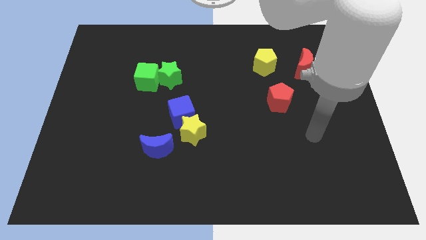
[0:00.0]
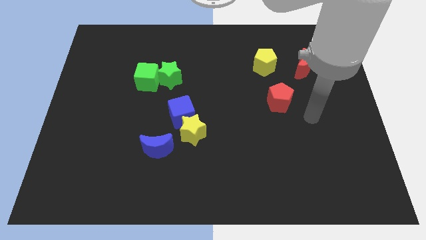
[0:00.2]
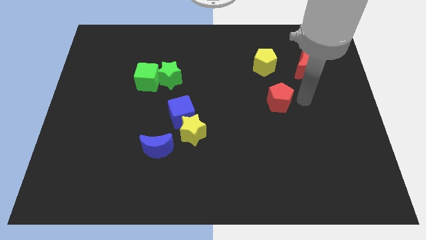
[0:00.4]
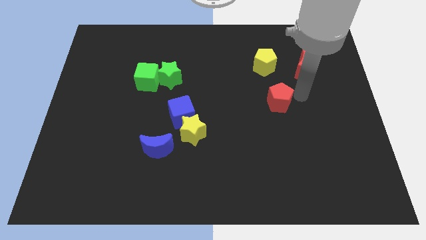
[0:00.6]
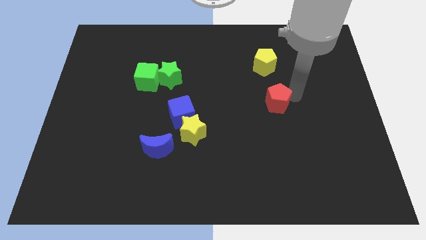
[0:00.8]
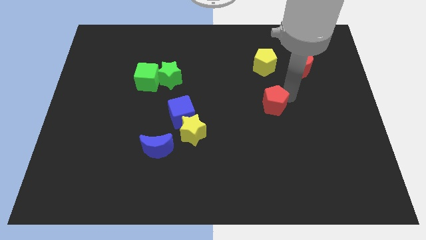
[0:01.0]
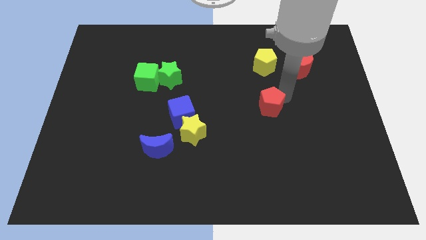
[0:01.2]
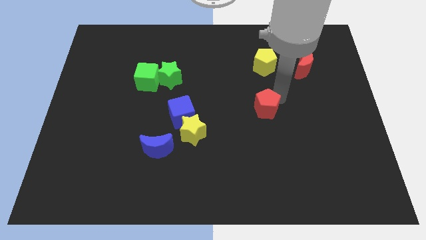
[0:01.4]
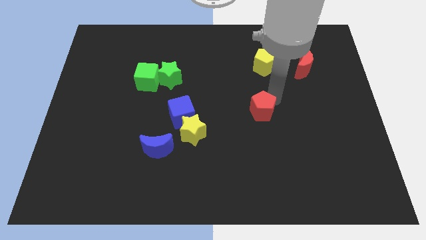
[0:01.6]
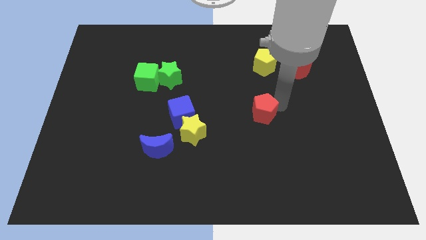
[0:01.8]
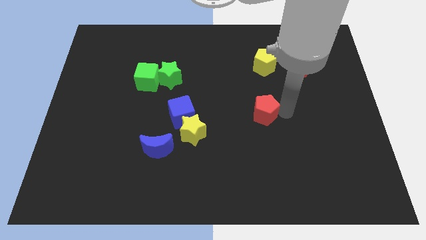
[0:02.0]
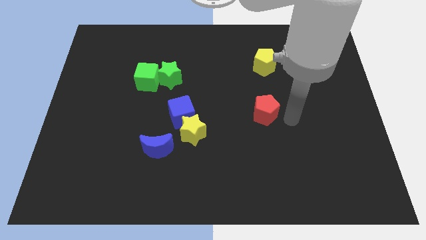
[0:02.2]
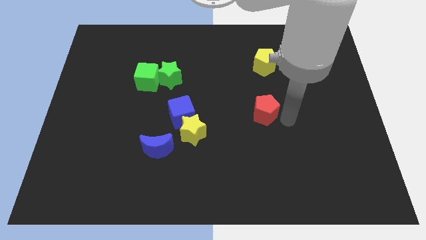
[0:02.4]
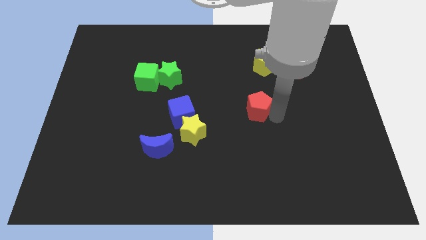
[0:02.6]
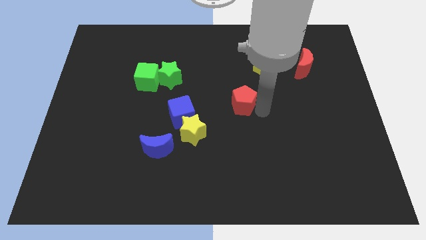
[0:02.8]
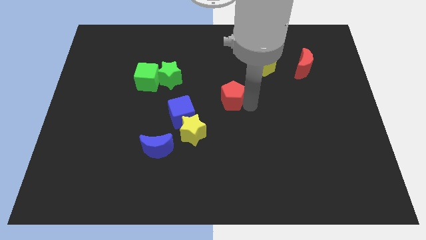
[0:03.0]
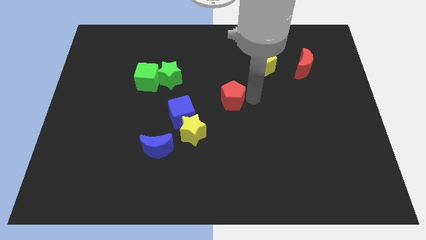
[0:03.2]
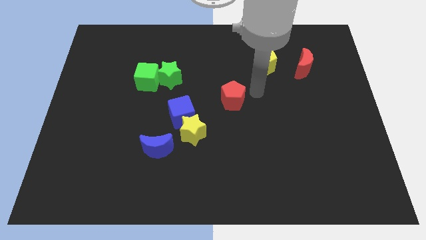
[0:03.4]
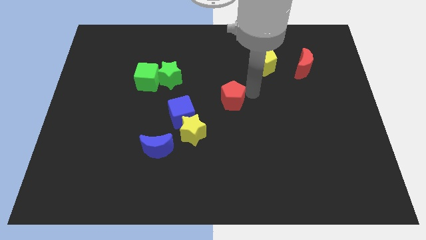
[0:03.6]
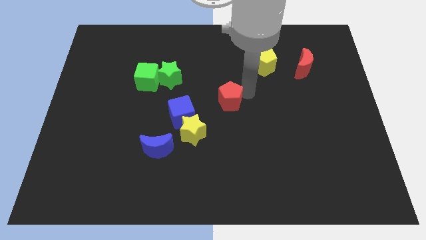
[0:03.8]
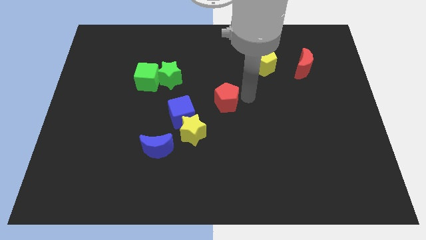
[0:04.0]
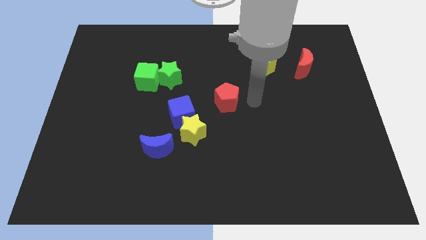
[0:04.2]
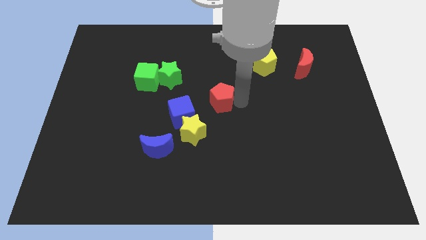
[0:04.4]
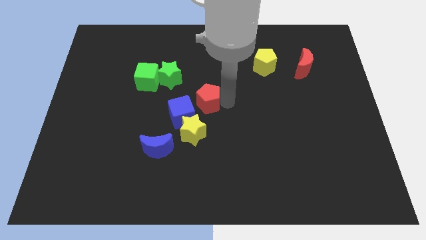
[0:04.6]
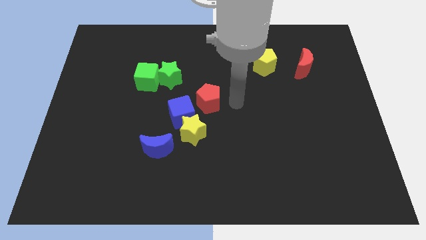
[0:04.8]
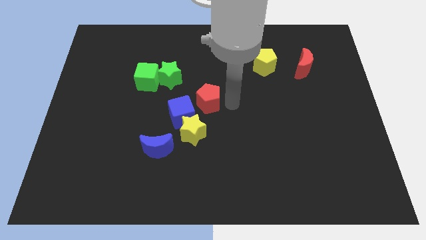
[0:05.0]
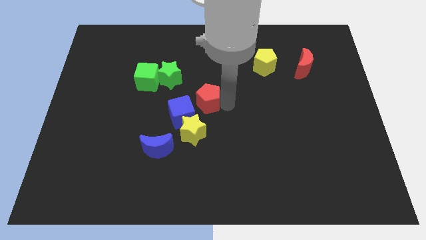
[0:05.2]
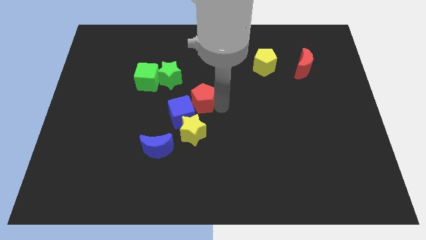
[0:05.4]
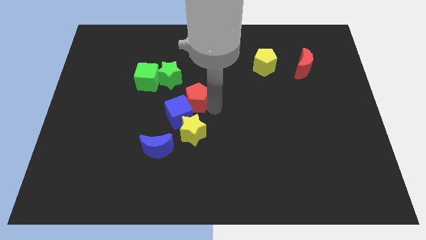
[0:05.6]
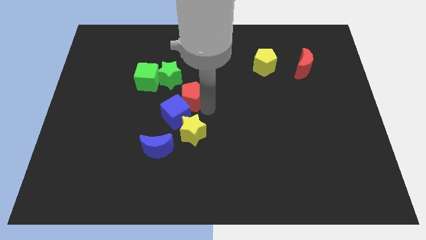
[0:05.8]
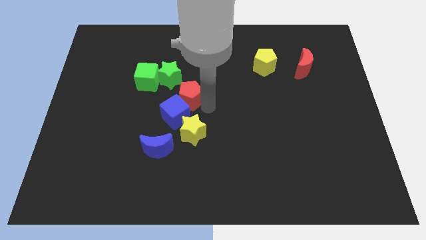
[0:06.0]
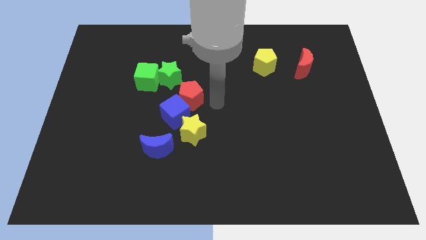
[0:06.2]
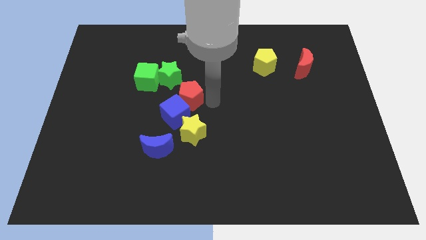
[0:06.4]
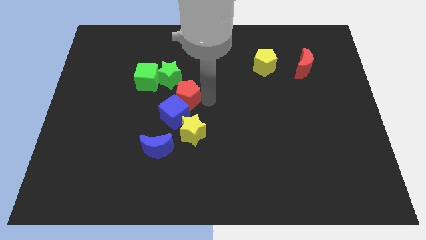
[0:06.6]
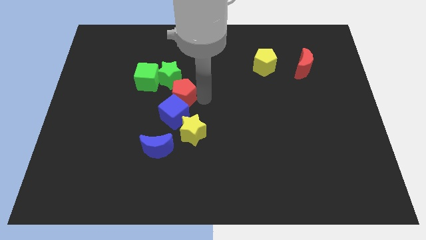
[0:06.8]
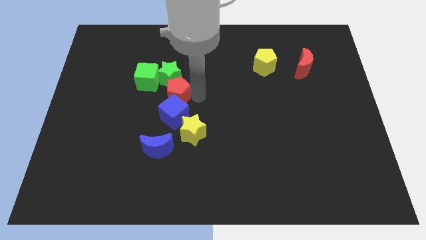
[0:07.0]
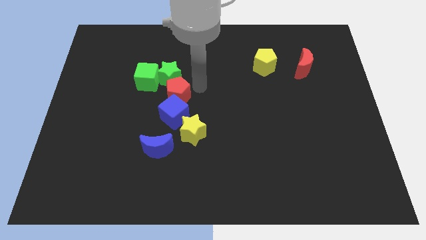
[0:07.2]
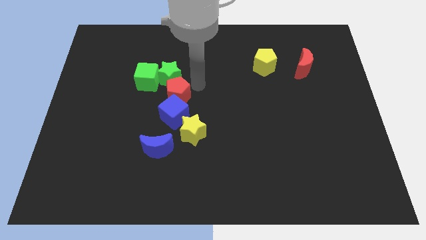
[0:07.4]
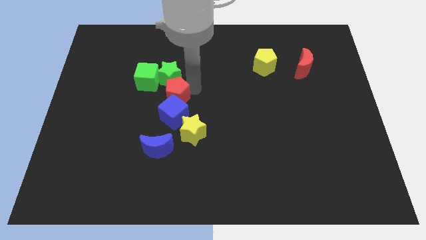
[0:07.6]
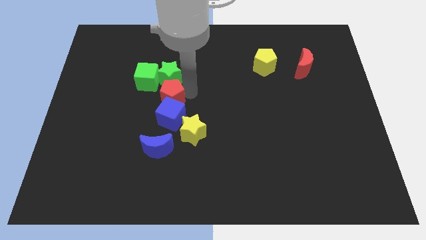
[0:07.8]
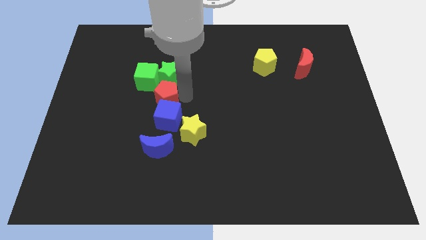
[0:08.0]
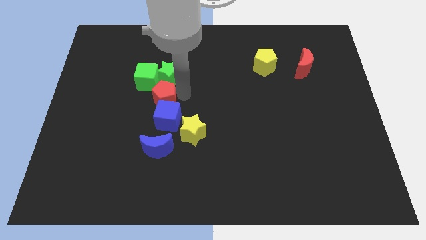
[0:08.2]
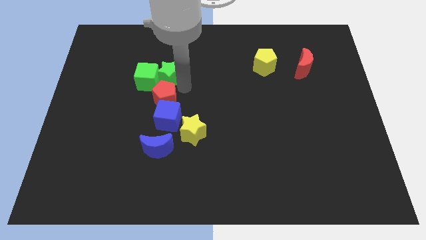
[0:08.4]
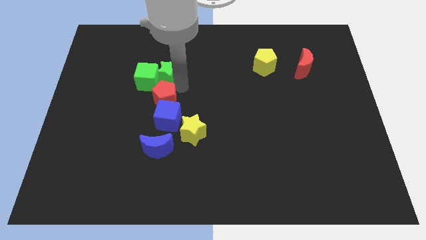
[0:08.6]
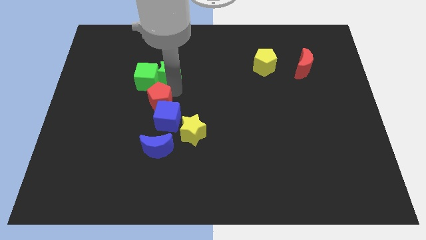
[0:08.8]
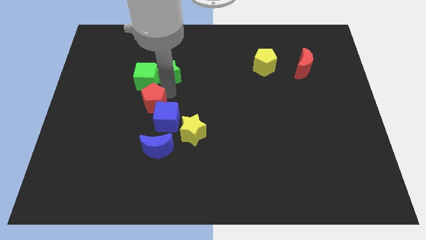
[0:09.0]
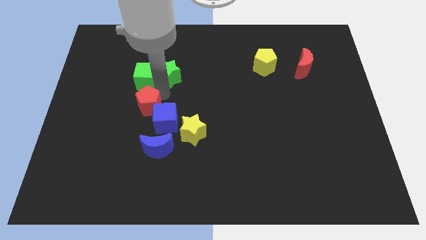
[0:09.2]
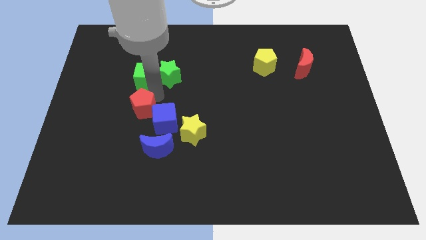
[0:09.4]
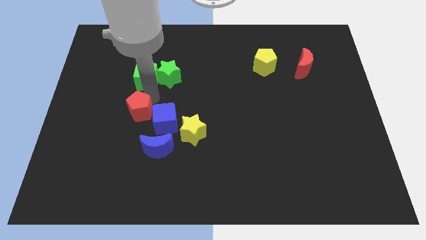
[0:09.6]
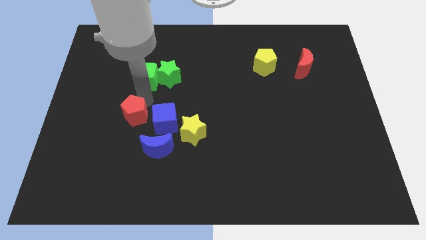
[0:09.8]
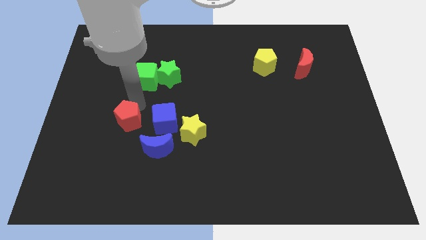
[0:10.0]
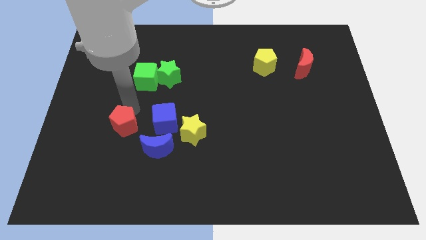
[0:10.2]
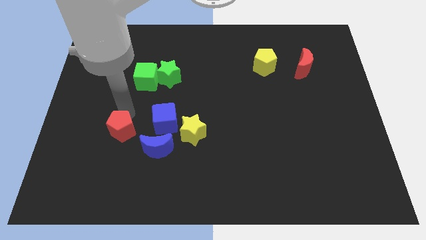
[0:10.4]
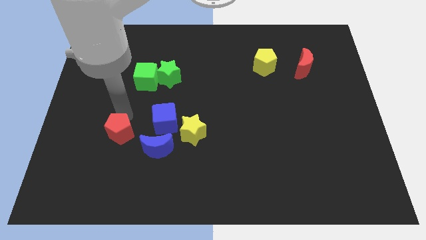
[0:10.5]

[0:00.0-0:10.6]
push the red pentagon left of the blue moon

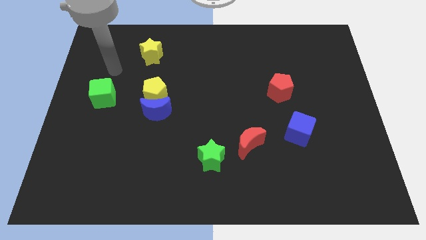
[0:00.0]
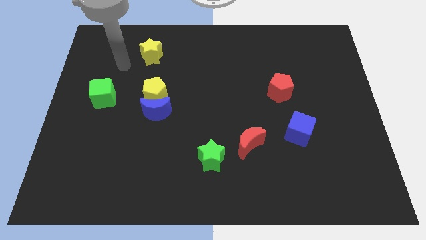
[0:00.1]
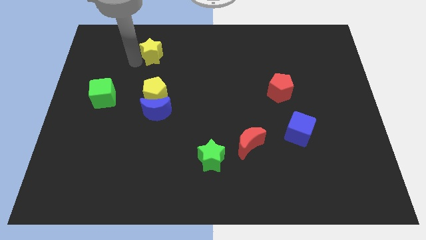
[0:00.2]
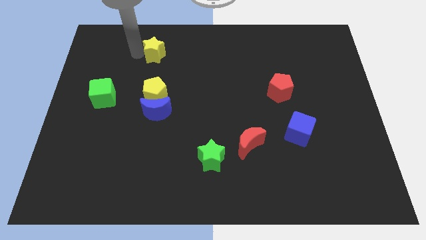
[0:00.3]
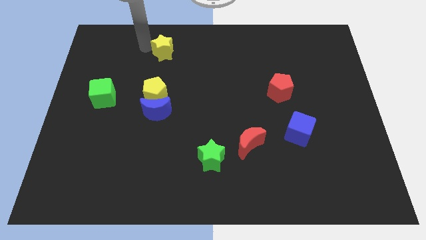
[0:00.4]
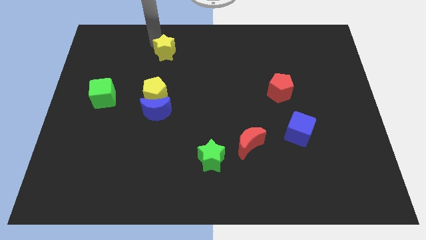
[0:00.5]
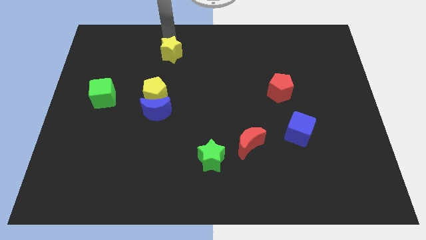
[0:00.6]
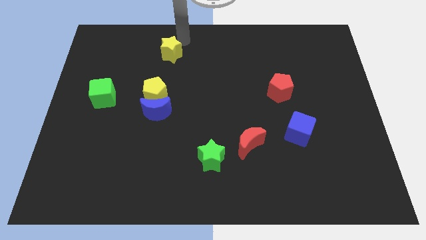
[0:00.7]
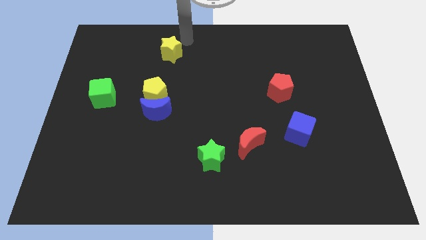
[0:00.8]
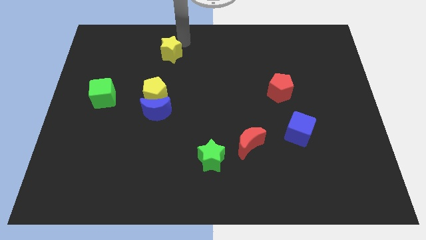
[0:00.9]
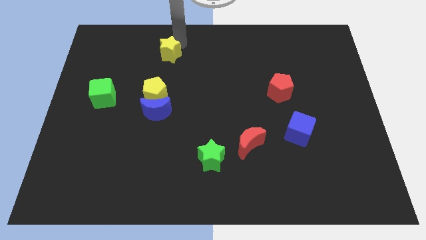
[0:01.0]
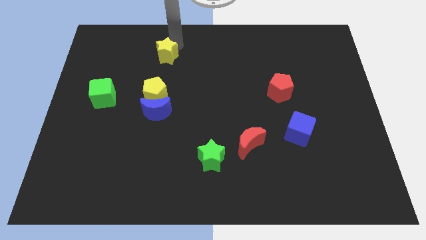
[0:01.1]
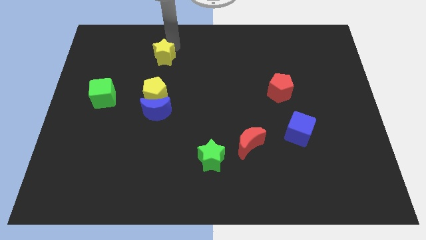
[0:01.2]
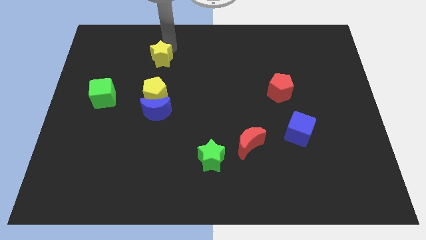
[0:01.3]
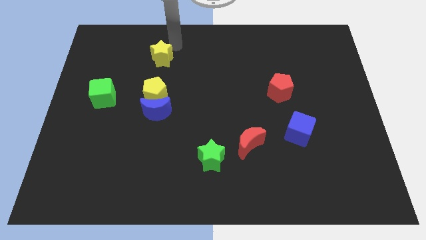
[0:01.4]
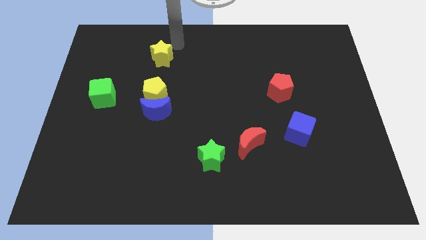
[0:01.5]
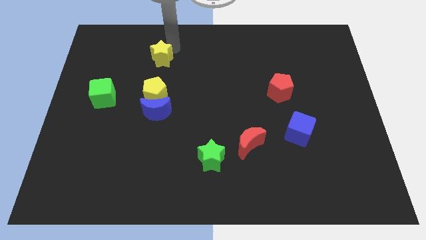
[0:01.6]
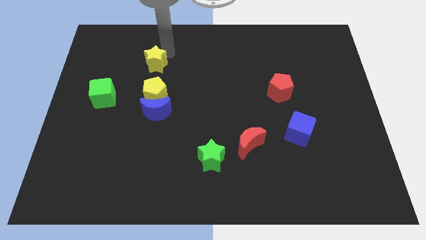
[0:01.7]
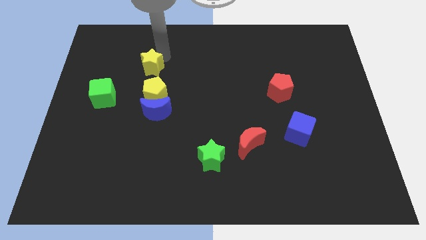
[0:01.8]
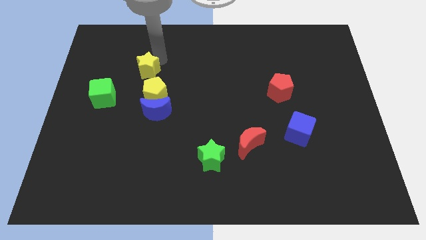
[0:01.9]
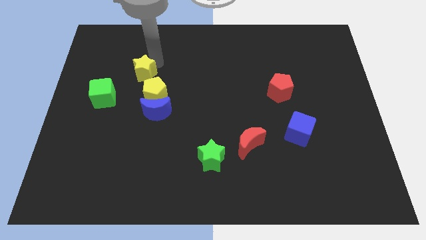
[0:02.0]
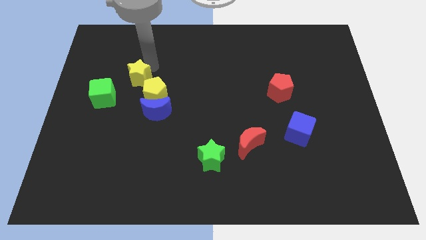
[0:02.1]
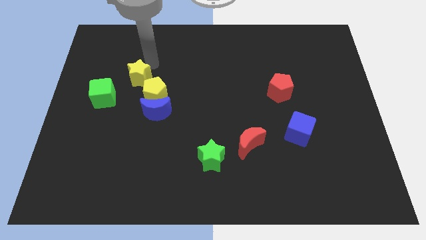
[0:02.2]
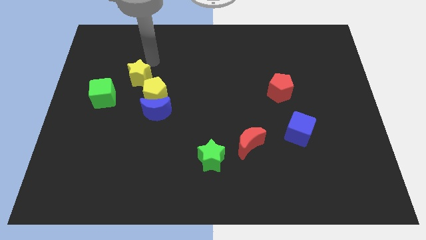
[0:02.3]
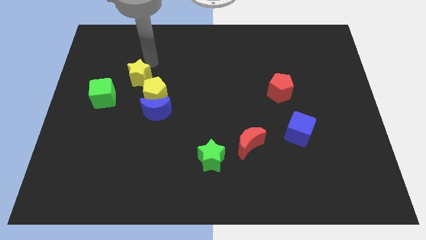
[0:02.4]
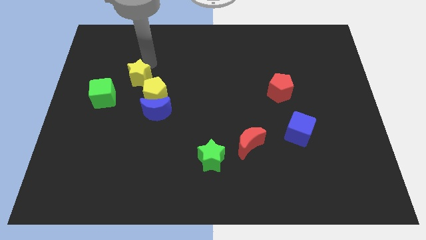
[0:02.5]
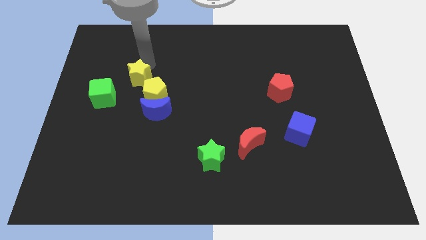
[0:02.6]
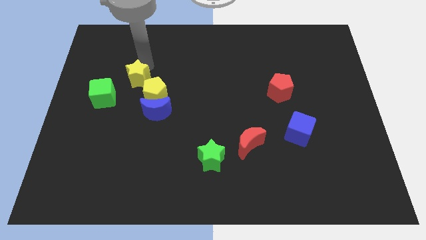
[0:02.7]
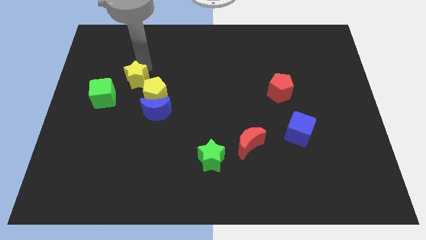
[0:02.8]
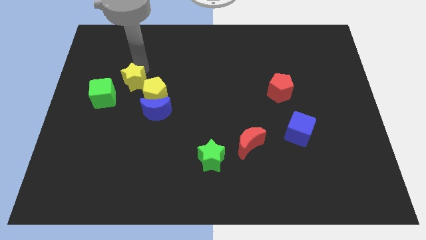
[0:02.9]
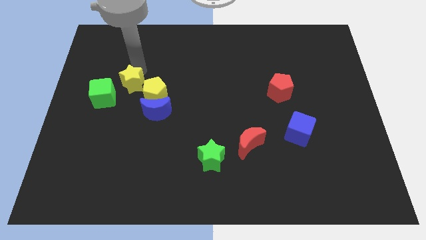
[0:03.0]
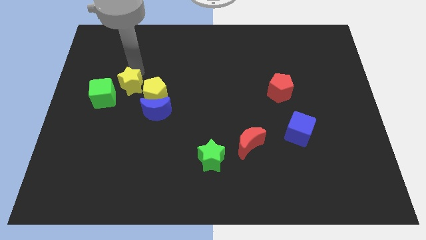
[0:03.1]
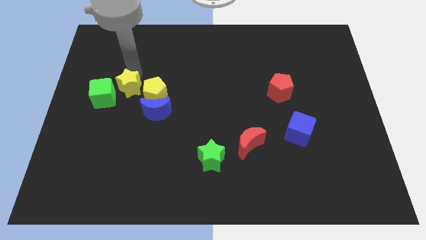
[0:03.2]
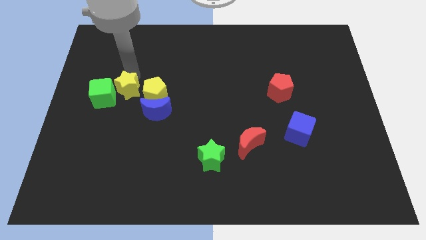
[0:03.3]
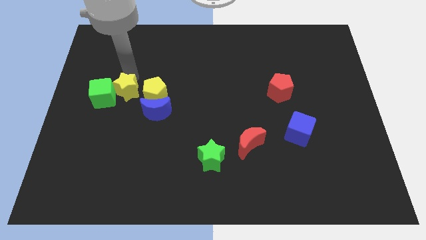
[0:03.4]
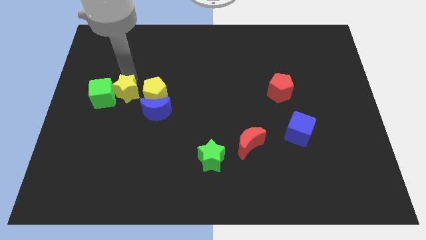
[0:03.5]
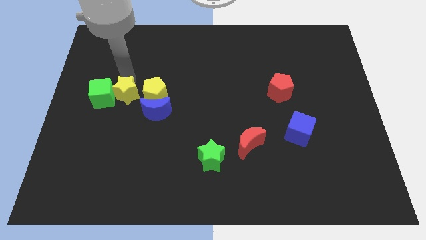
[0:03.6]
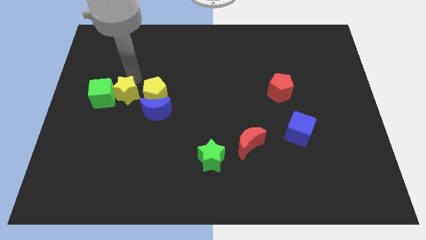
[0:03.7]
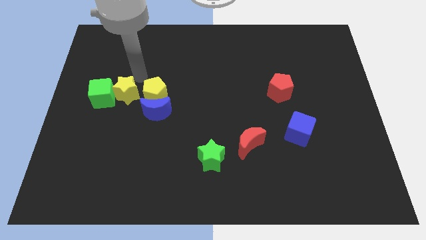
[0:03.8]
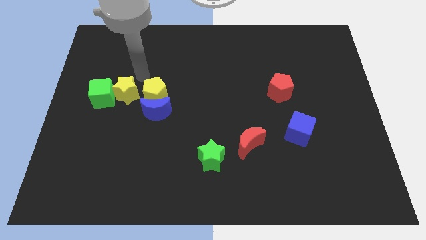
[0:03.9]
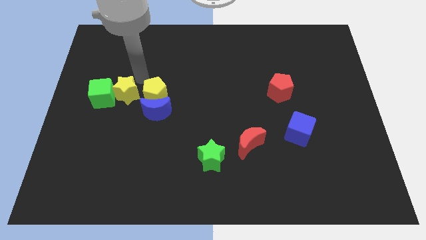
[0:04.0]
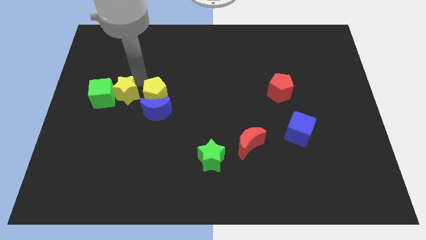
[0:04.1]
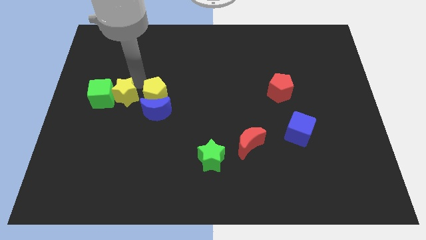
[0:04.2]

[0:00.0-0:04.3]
put the yellow star to the left side of the blue moon
